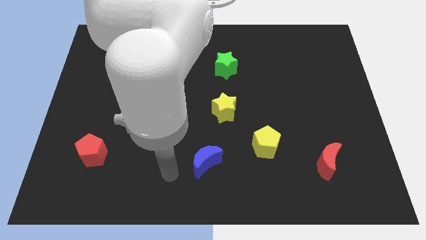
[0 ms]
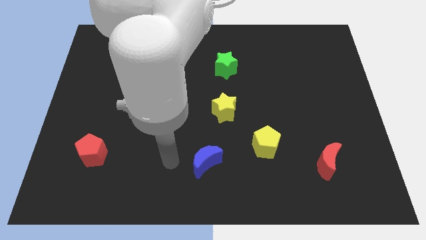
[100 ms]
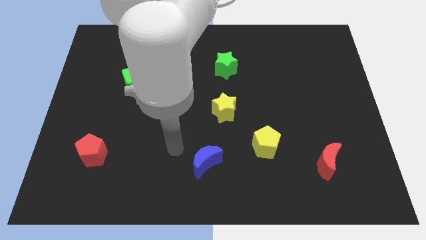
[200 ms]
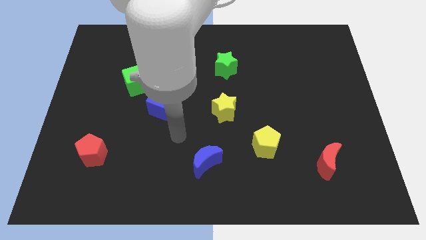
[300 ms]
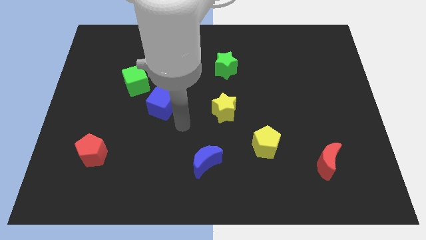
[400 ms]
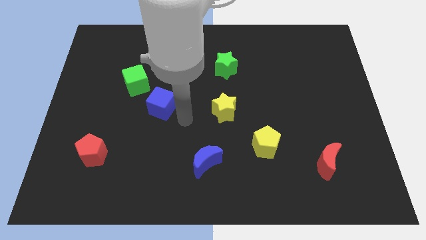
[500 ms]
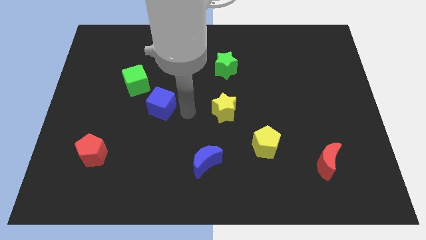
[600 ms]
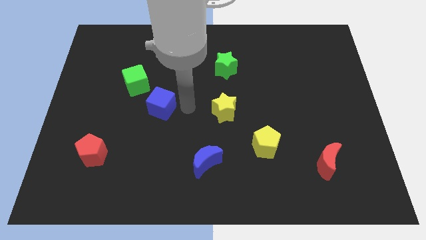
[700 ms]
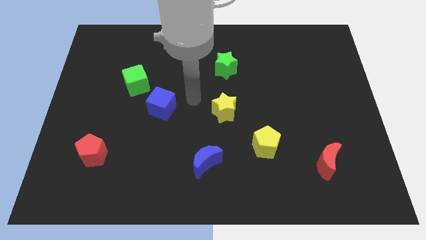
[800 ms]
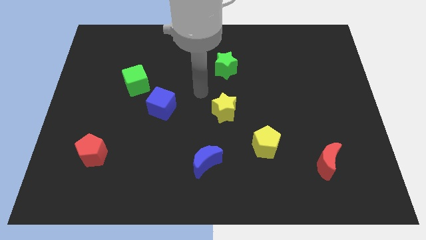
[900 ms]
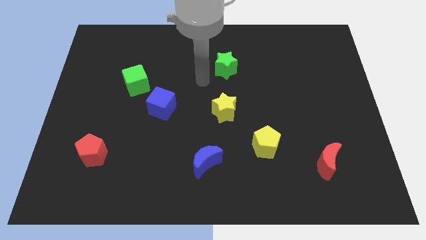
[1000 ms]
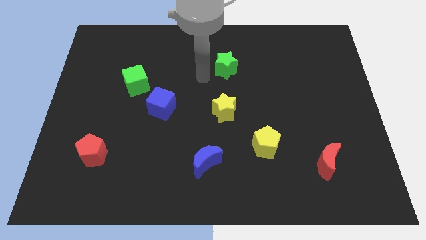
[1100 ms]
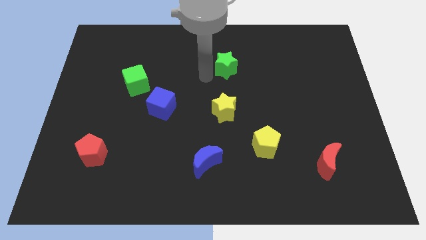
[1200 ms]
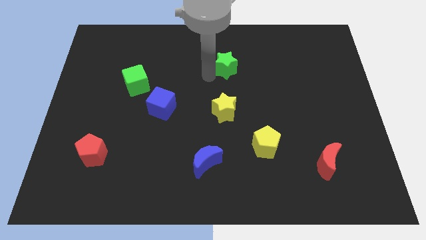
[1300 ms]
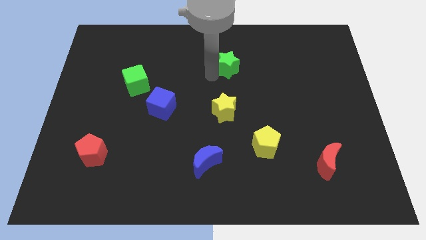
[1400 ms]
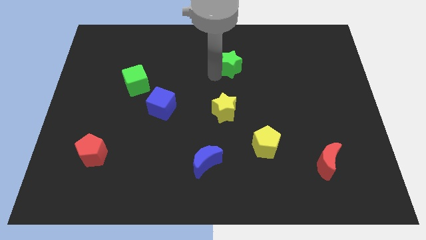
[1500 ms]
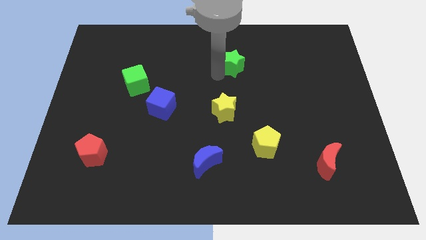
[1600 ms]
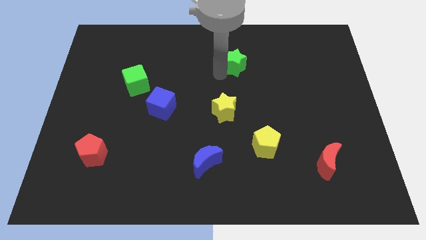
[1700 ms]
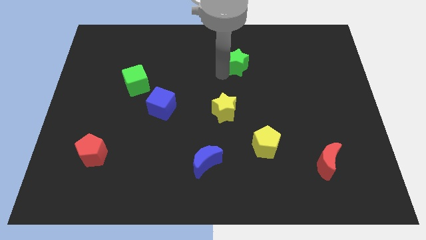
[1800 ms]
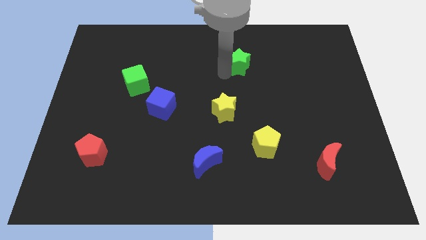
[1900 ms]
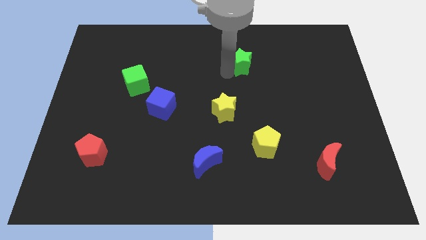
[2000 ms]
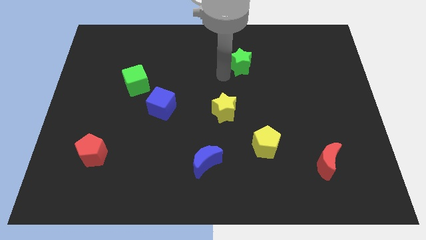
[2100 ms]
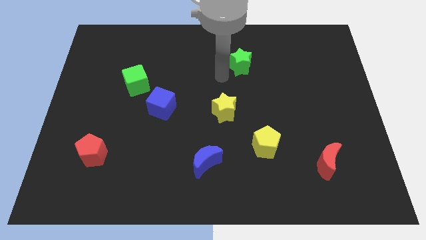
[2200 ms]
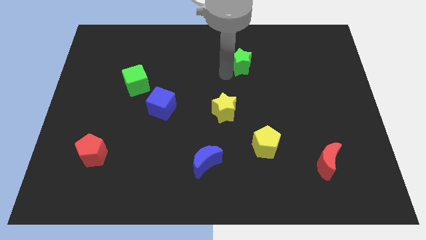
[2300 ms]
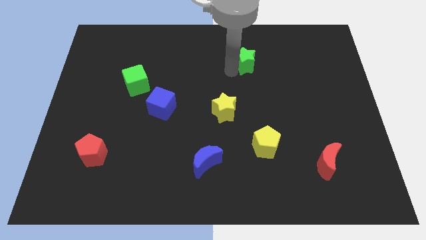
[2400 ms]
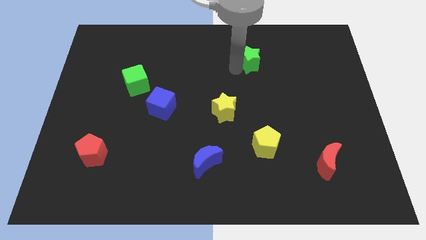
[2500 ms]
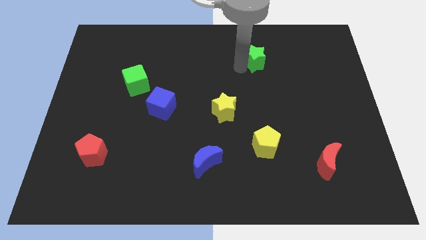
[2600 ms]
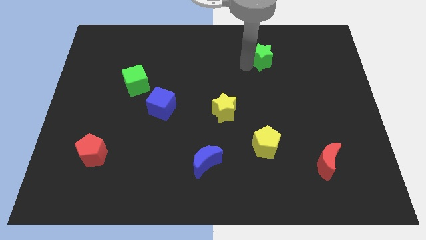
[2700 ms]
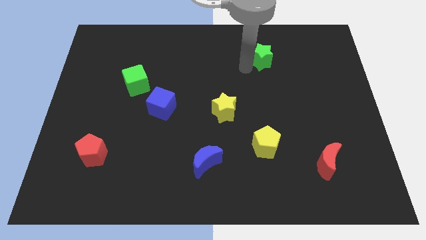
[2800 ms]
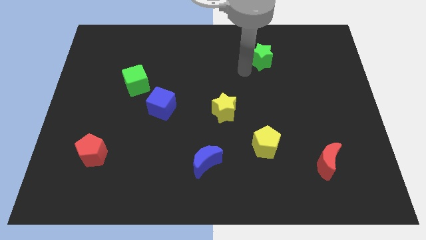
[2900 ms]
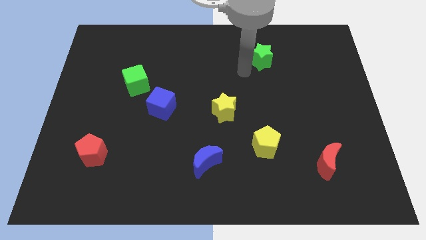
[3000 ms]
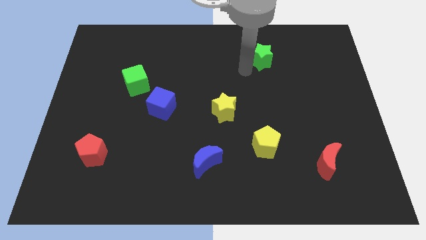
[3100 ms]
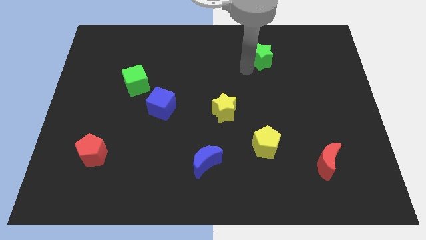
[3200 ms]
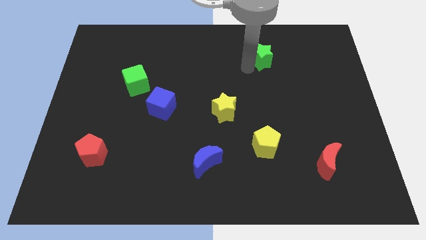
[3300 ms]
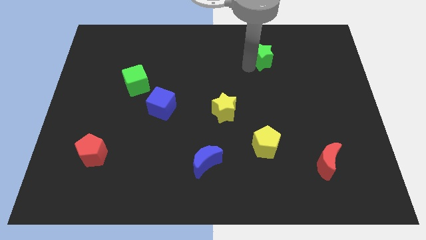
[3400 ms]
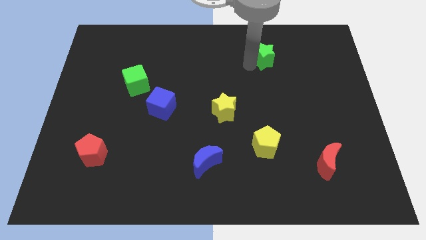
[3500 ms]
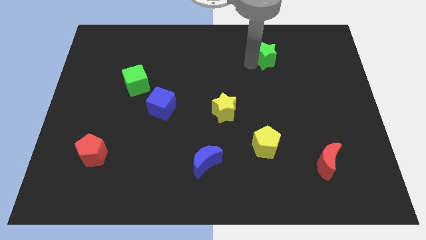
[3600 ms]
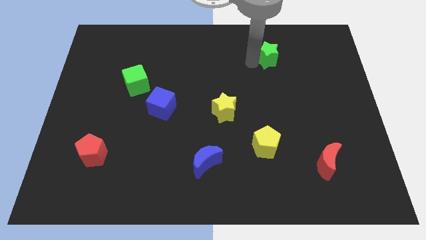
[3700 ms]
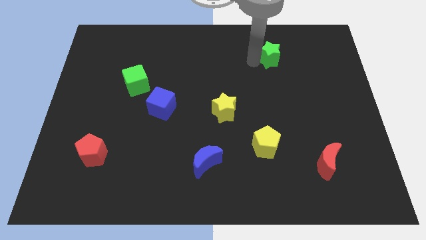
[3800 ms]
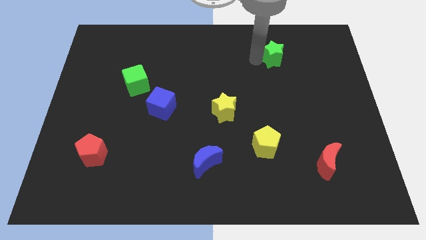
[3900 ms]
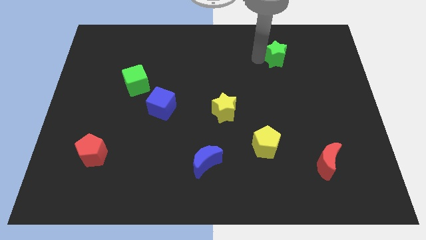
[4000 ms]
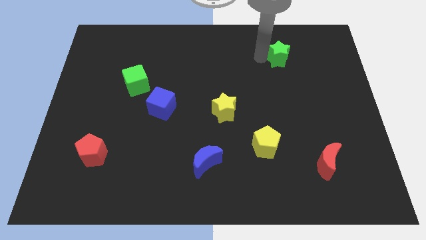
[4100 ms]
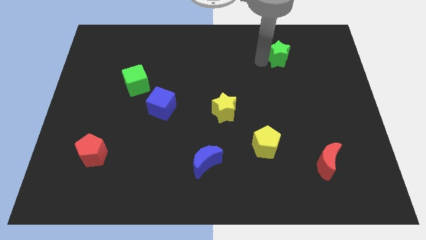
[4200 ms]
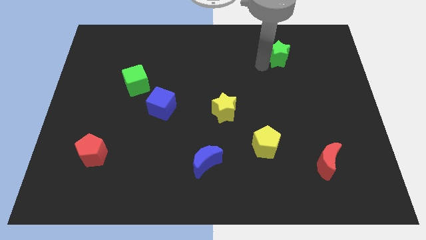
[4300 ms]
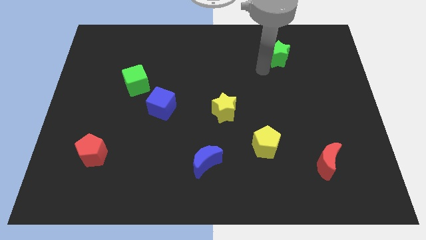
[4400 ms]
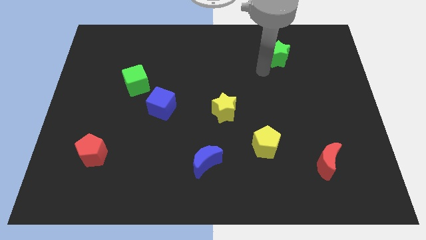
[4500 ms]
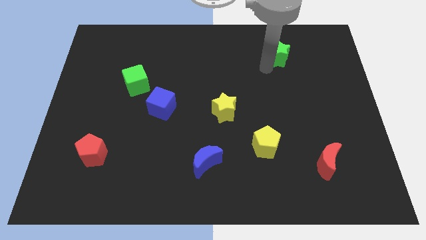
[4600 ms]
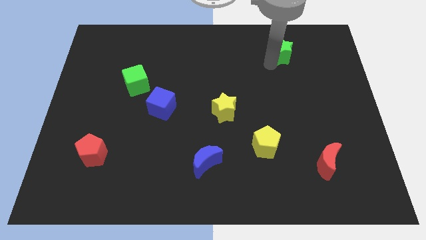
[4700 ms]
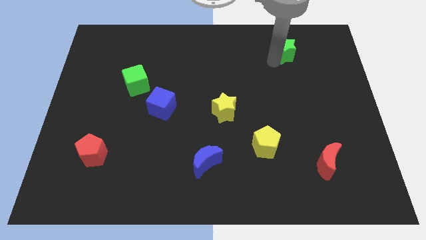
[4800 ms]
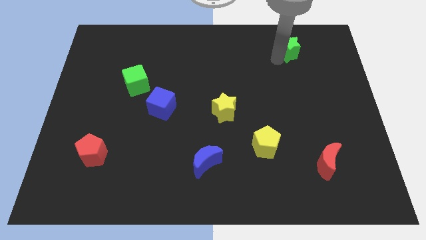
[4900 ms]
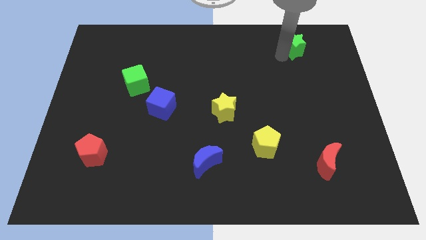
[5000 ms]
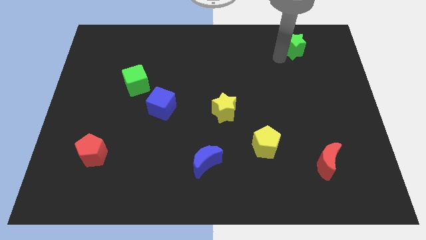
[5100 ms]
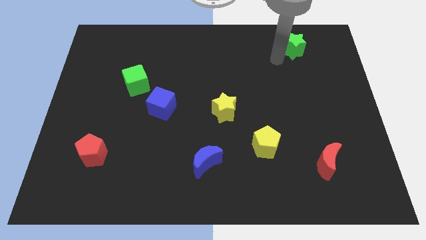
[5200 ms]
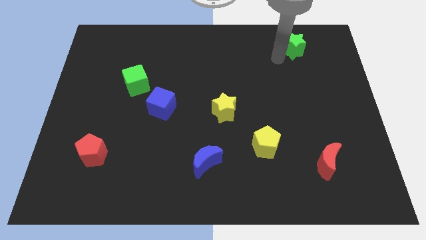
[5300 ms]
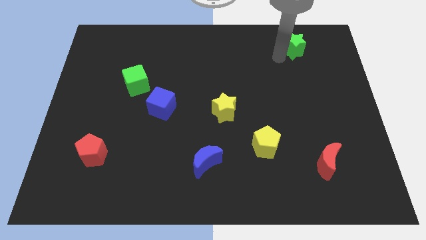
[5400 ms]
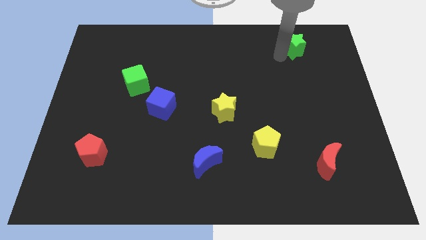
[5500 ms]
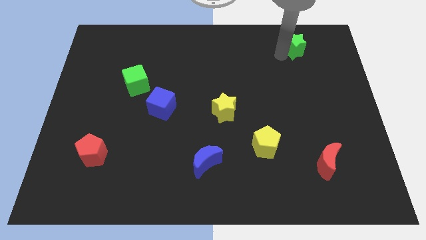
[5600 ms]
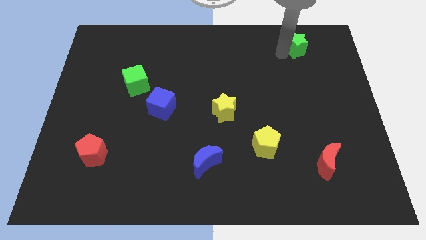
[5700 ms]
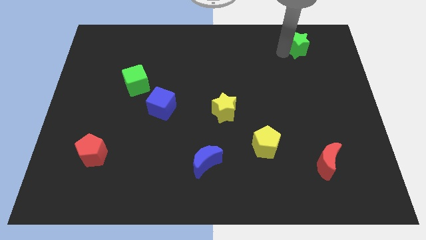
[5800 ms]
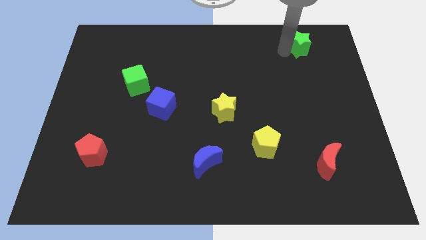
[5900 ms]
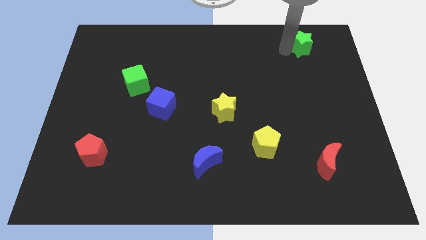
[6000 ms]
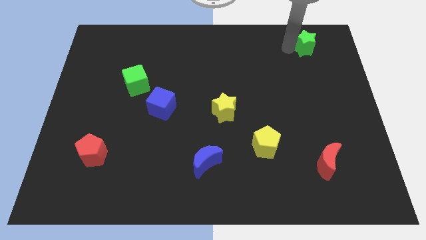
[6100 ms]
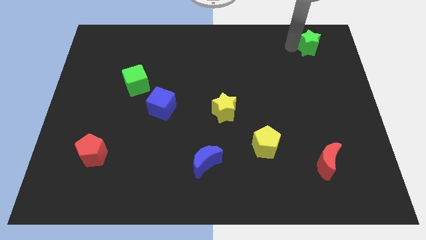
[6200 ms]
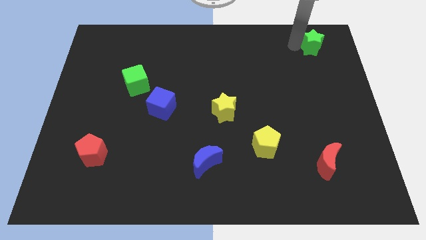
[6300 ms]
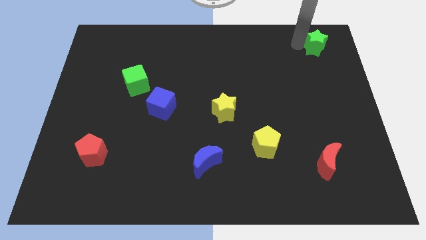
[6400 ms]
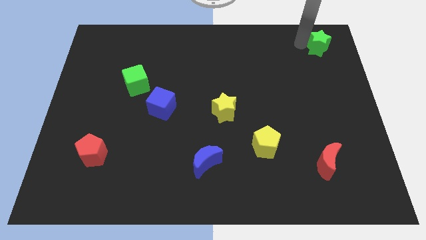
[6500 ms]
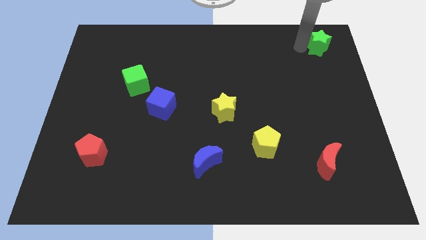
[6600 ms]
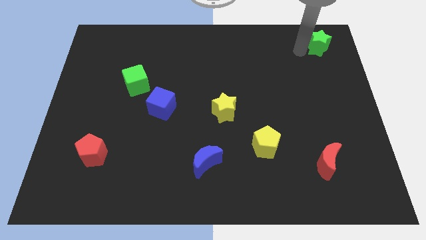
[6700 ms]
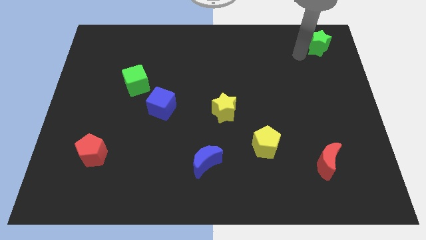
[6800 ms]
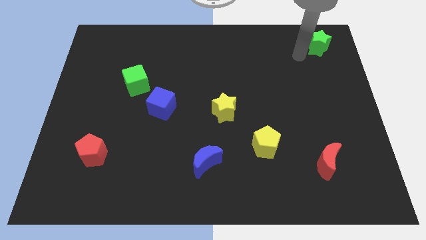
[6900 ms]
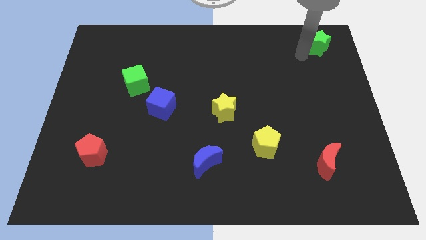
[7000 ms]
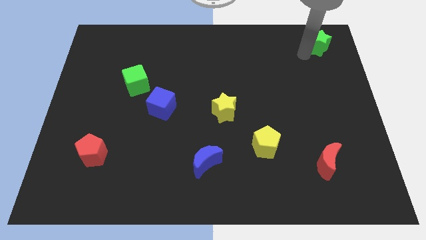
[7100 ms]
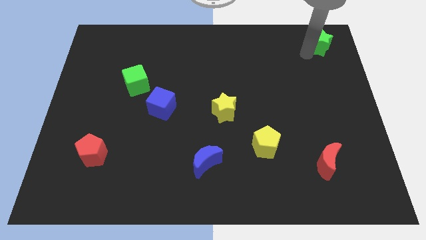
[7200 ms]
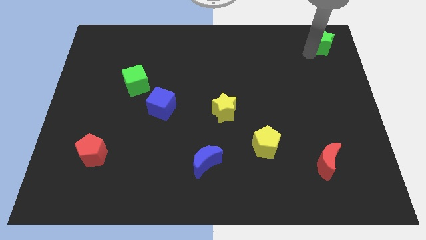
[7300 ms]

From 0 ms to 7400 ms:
push the green star to the upper right corner

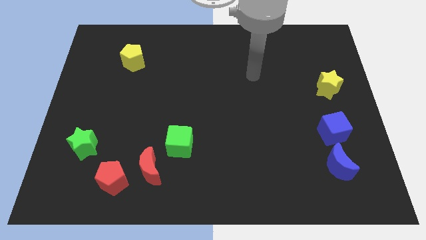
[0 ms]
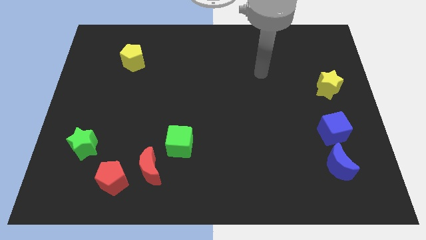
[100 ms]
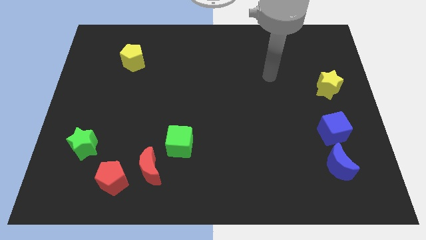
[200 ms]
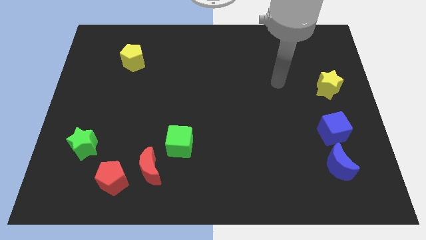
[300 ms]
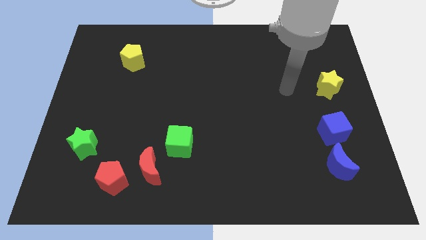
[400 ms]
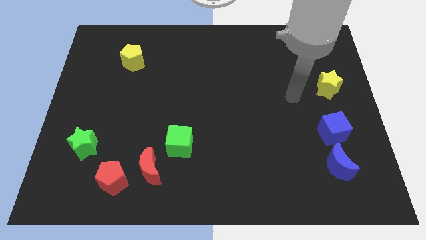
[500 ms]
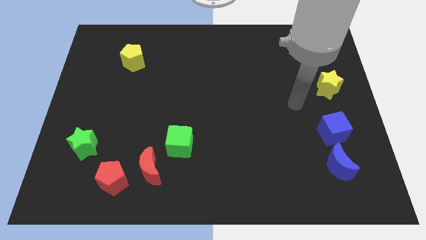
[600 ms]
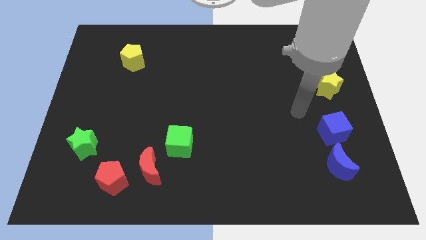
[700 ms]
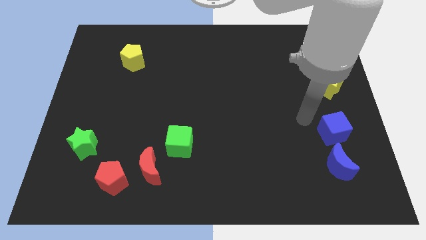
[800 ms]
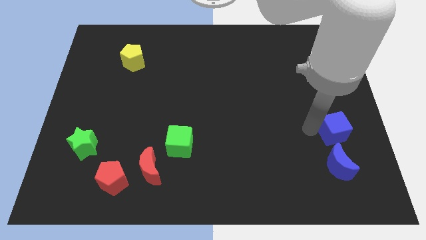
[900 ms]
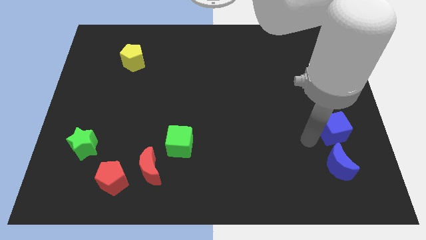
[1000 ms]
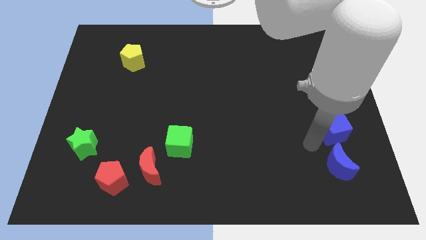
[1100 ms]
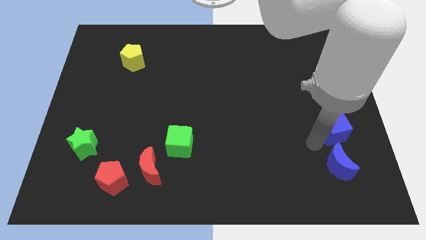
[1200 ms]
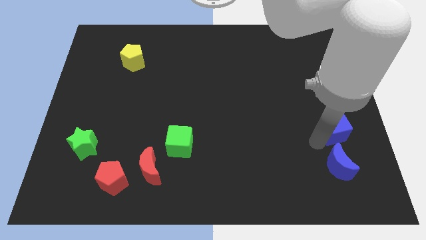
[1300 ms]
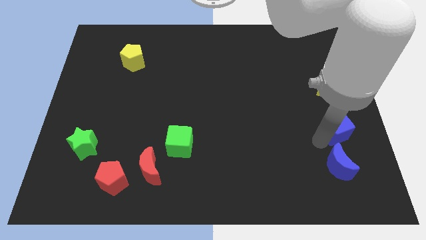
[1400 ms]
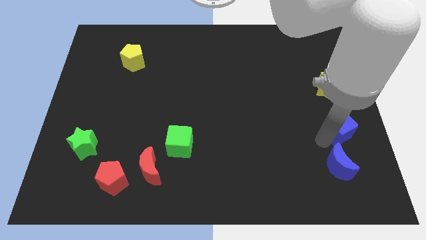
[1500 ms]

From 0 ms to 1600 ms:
push the blue cube to the right side of the board
